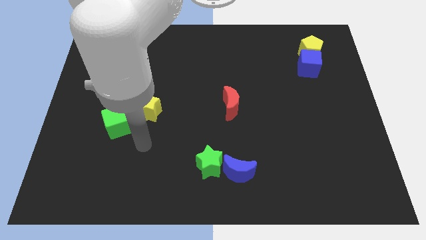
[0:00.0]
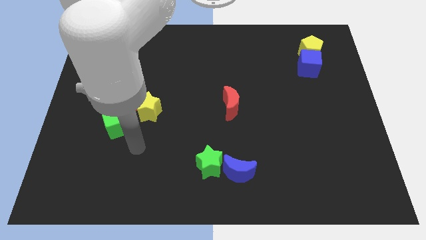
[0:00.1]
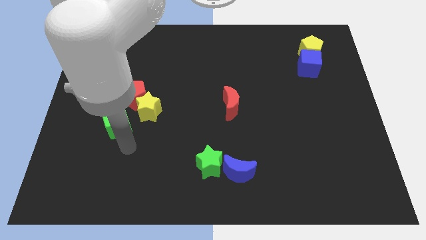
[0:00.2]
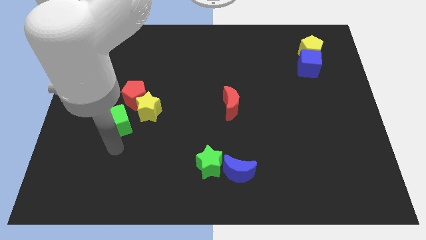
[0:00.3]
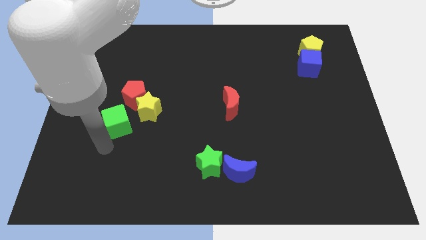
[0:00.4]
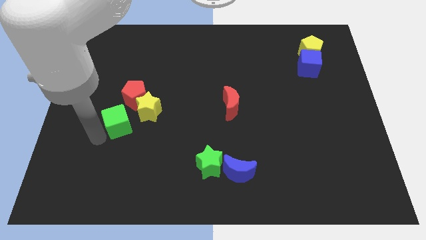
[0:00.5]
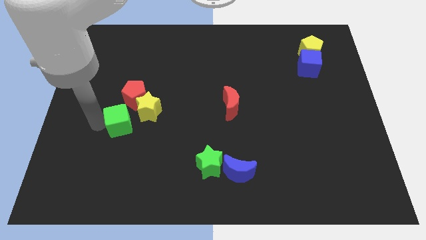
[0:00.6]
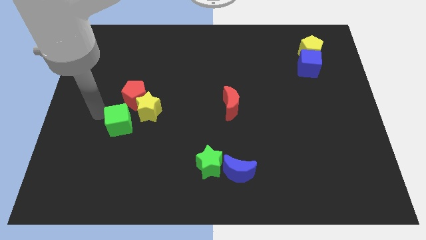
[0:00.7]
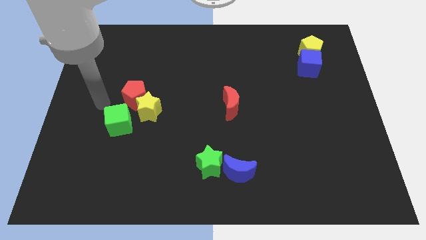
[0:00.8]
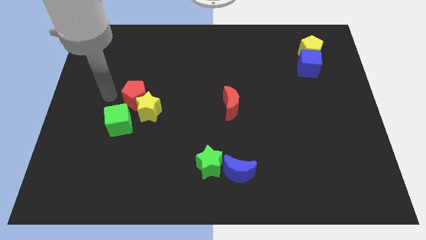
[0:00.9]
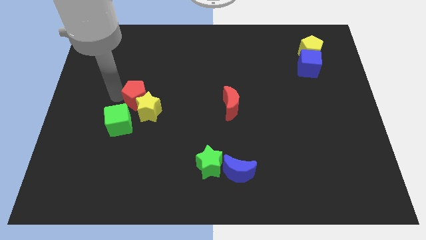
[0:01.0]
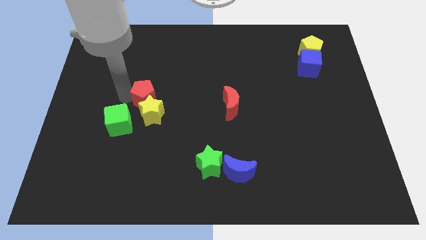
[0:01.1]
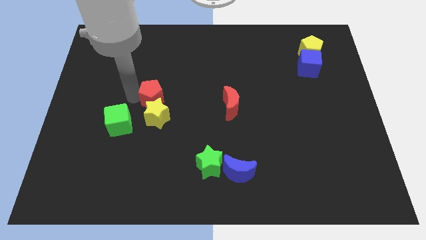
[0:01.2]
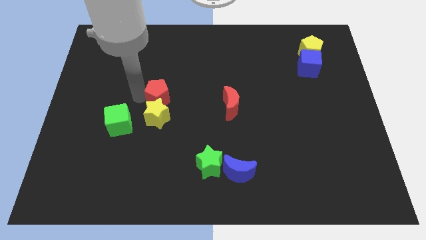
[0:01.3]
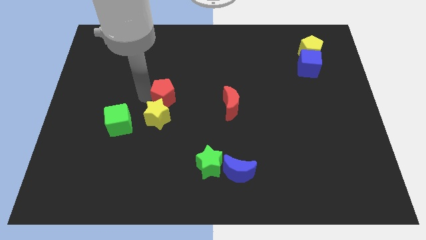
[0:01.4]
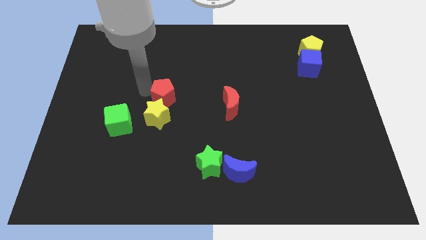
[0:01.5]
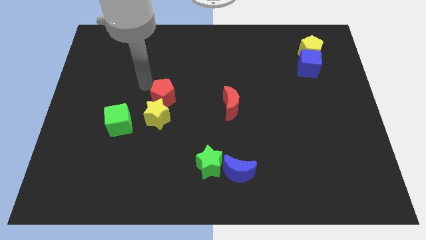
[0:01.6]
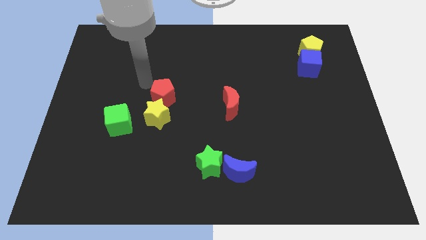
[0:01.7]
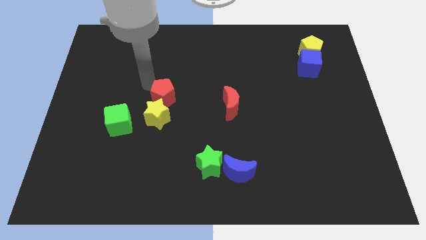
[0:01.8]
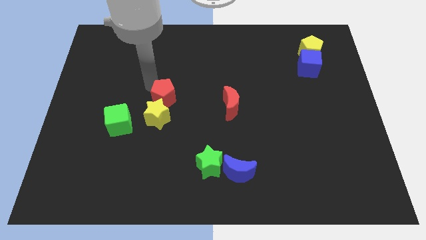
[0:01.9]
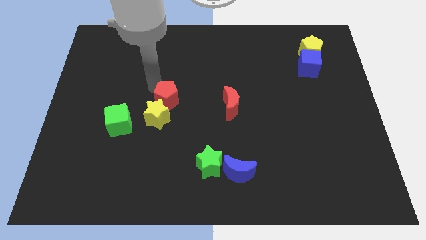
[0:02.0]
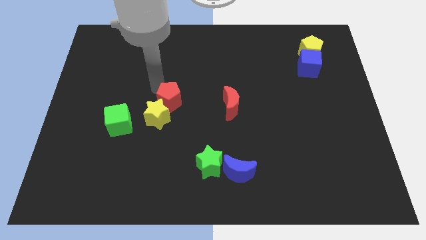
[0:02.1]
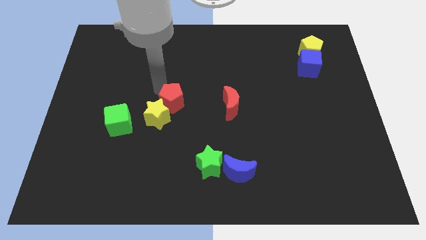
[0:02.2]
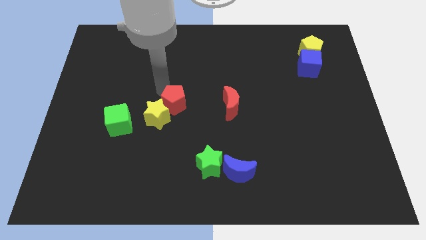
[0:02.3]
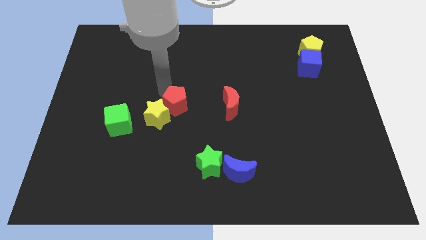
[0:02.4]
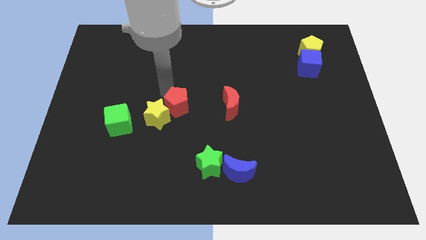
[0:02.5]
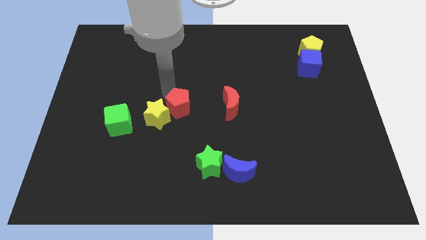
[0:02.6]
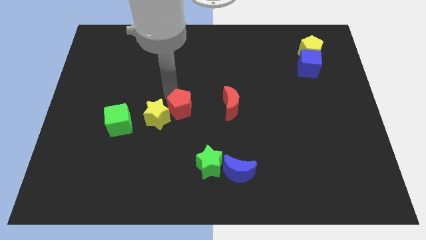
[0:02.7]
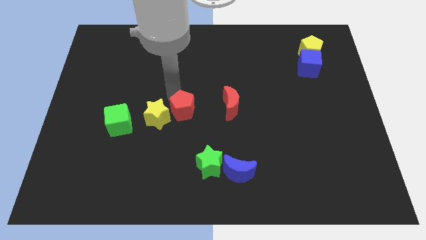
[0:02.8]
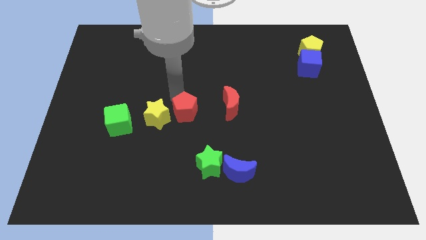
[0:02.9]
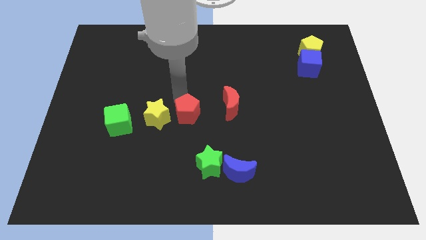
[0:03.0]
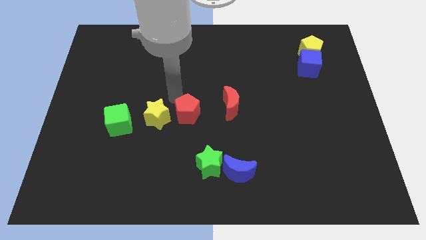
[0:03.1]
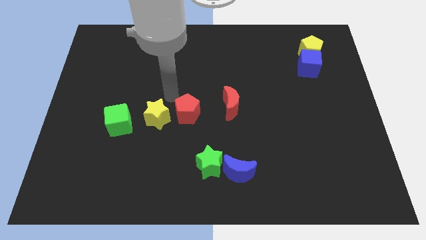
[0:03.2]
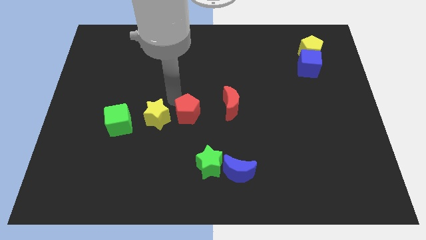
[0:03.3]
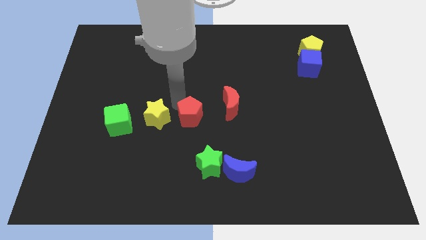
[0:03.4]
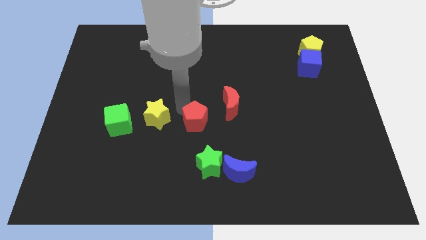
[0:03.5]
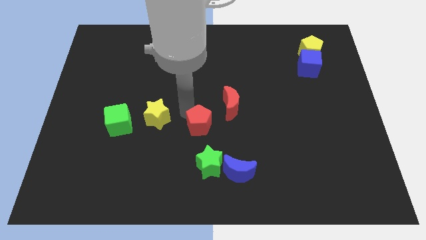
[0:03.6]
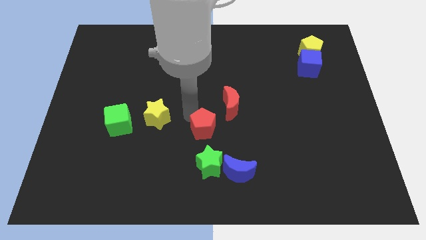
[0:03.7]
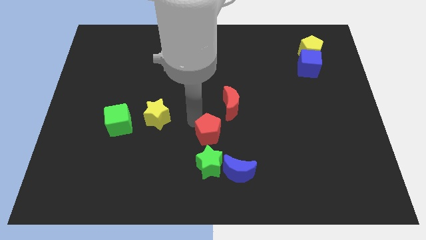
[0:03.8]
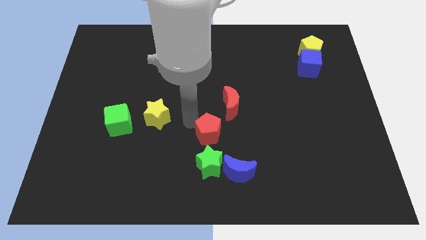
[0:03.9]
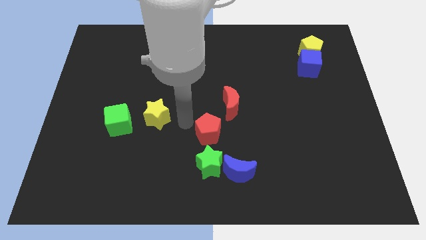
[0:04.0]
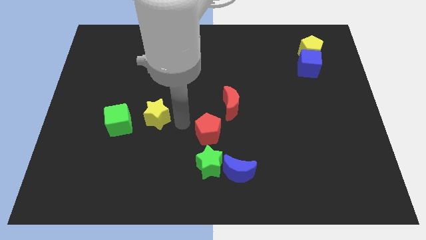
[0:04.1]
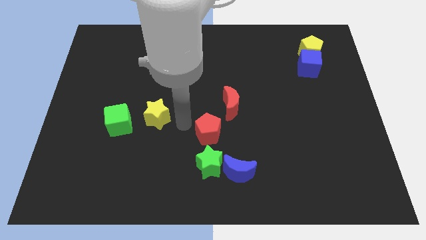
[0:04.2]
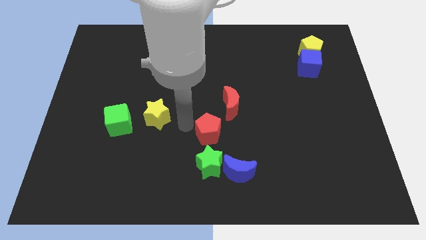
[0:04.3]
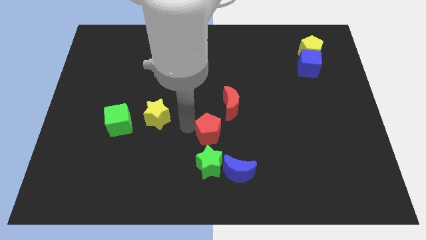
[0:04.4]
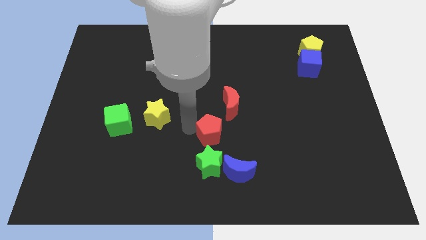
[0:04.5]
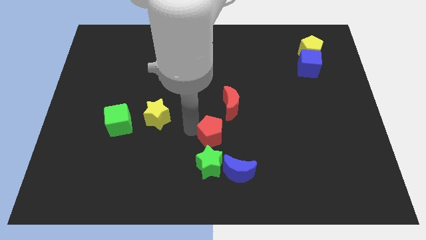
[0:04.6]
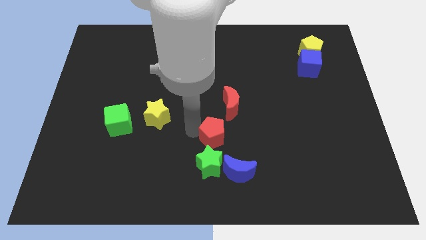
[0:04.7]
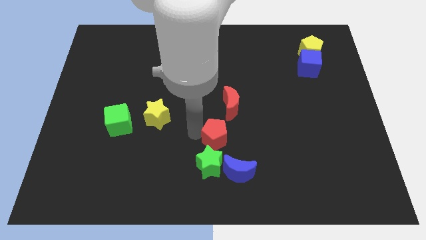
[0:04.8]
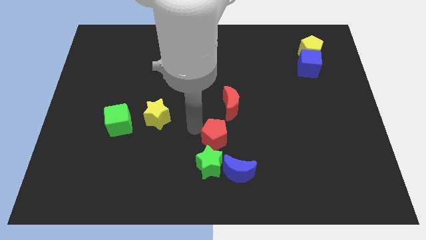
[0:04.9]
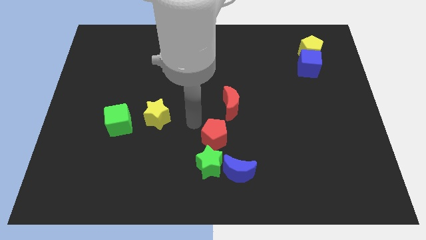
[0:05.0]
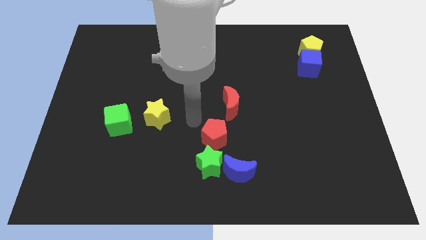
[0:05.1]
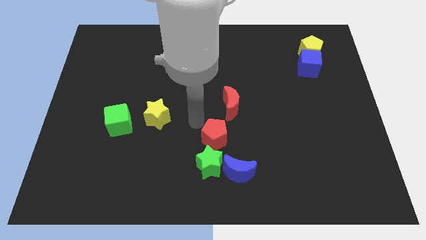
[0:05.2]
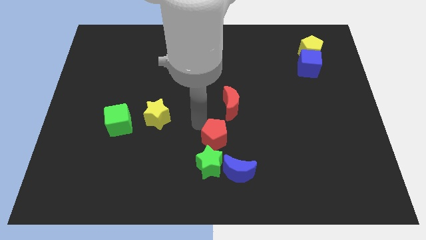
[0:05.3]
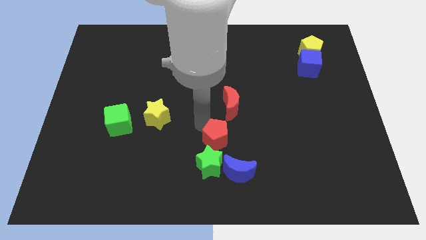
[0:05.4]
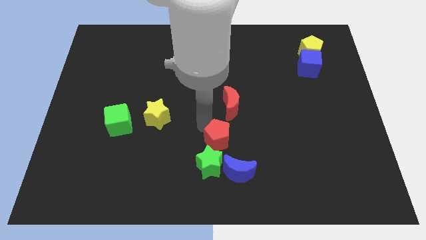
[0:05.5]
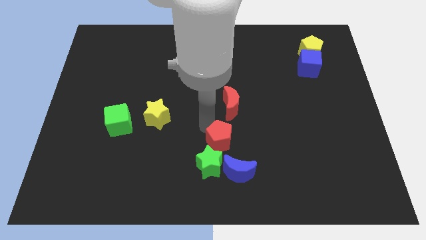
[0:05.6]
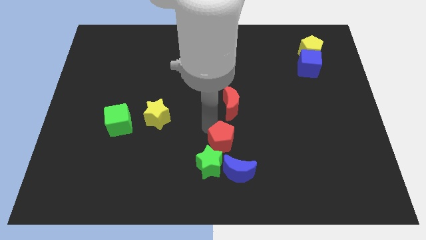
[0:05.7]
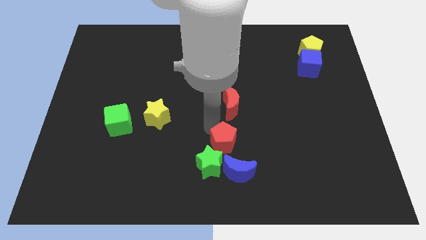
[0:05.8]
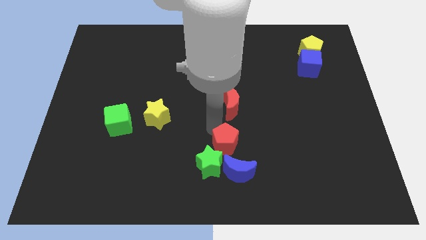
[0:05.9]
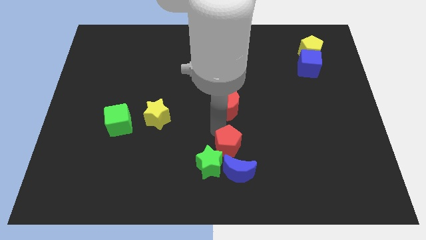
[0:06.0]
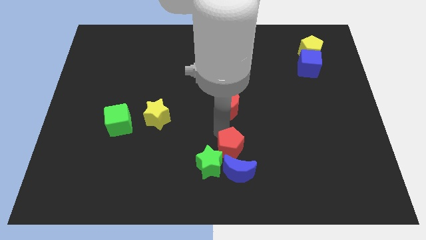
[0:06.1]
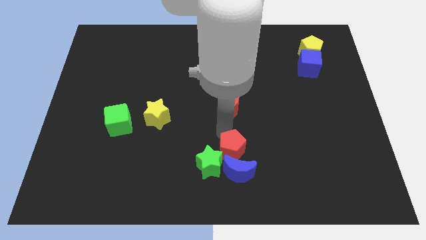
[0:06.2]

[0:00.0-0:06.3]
move the red pentagon to the blue moon
